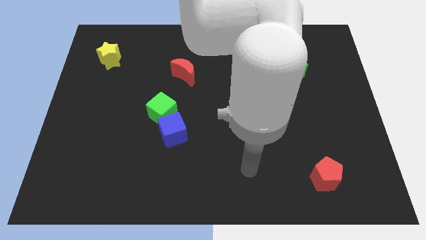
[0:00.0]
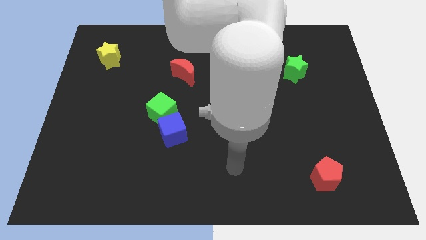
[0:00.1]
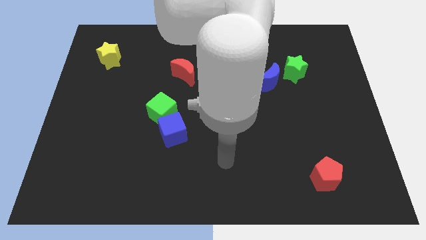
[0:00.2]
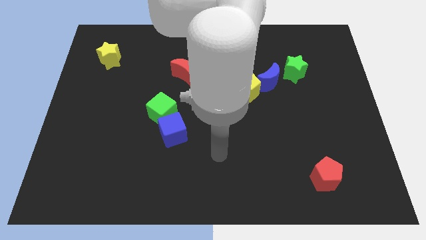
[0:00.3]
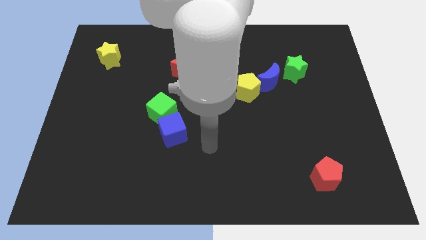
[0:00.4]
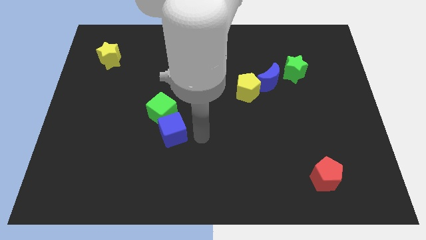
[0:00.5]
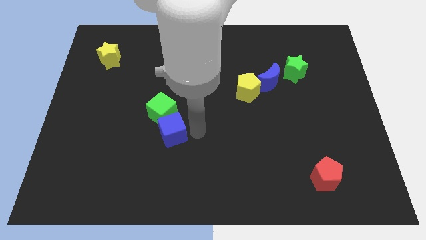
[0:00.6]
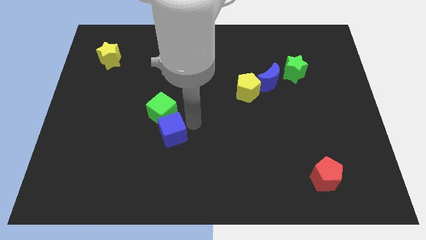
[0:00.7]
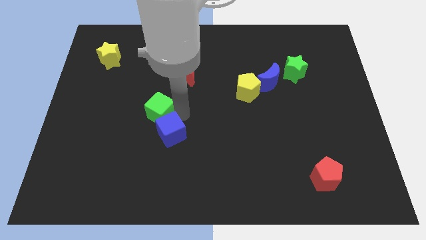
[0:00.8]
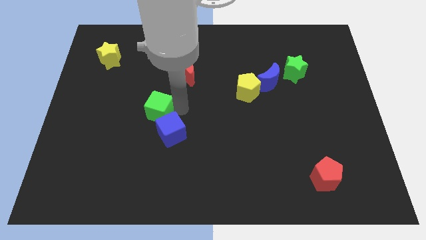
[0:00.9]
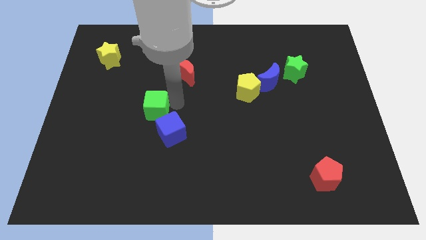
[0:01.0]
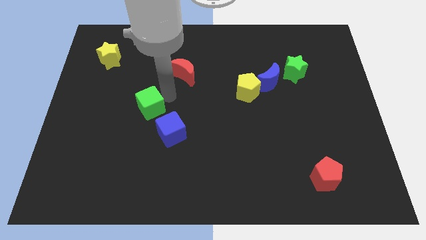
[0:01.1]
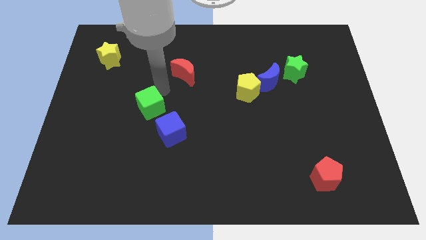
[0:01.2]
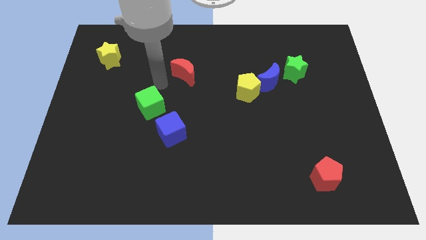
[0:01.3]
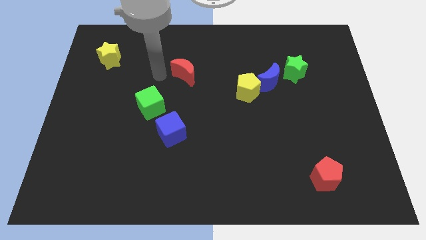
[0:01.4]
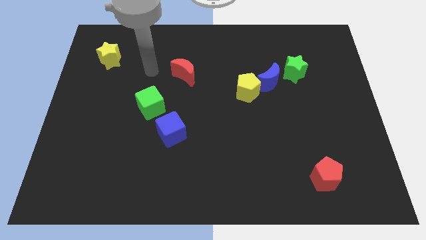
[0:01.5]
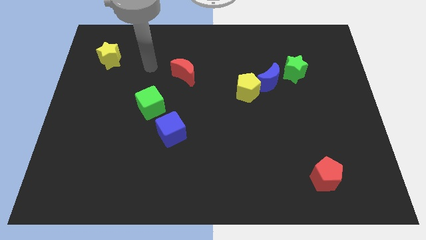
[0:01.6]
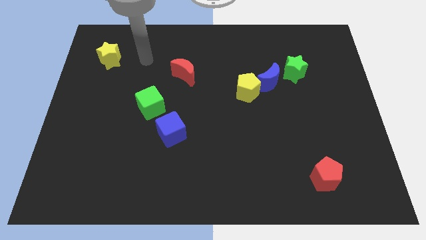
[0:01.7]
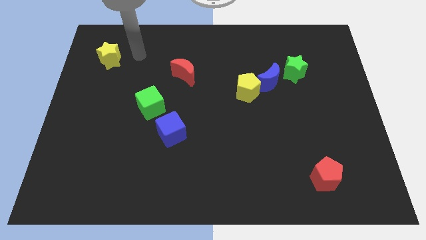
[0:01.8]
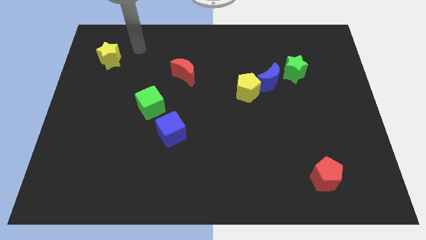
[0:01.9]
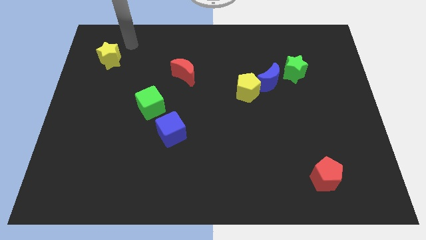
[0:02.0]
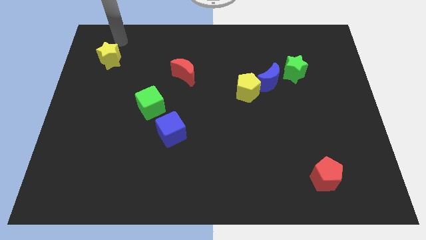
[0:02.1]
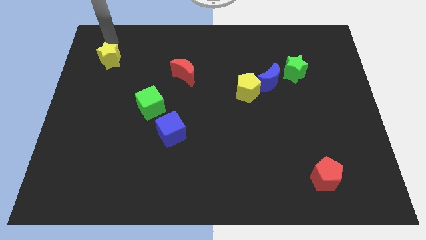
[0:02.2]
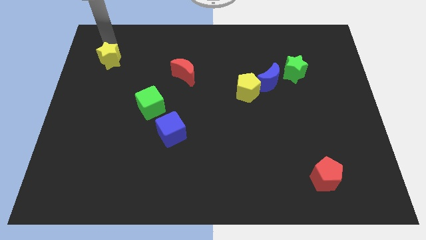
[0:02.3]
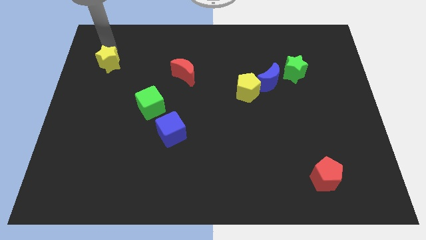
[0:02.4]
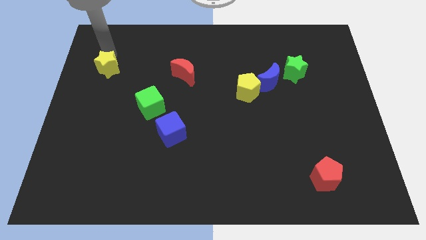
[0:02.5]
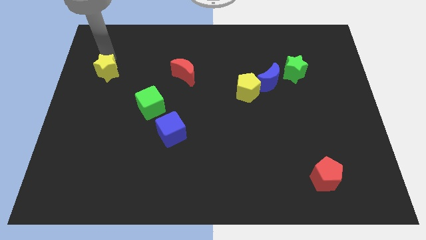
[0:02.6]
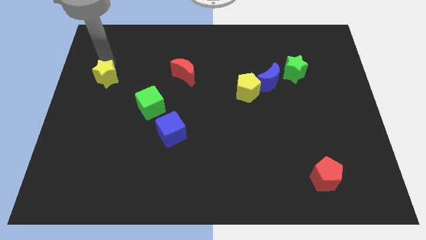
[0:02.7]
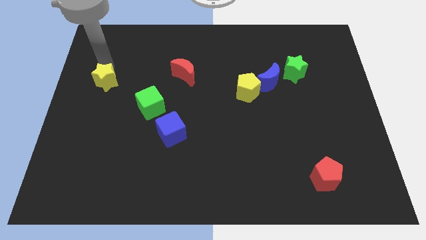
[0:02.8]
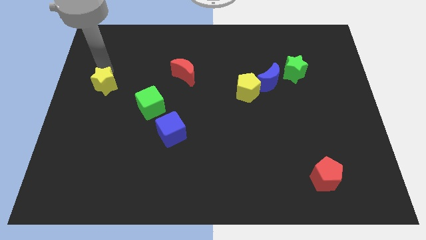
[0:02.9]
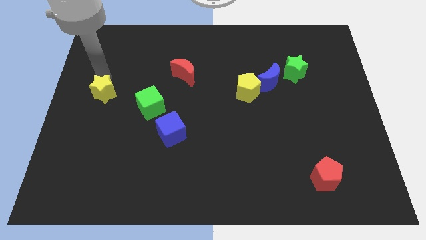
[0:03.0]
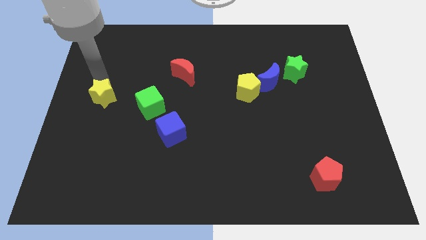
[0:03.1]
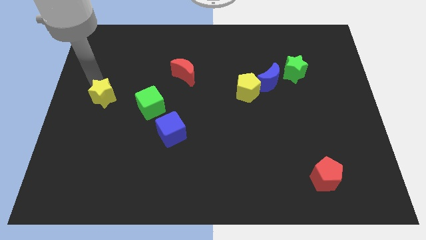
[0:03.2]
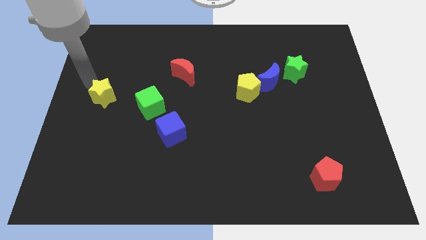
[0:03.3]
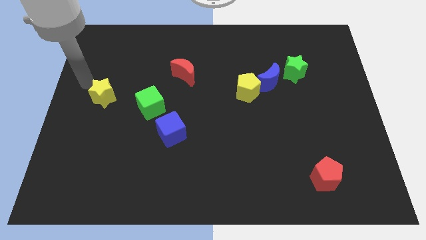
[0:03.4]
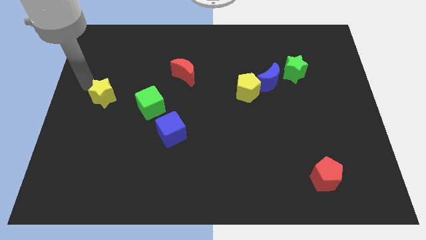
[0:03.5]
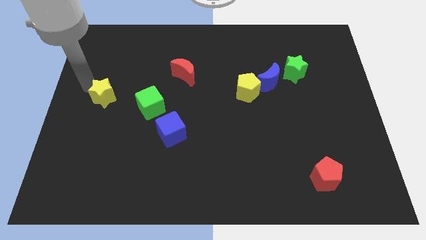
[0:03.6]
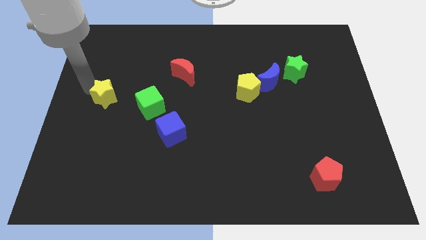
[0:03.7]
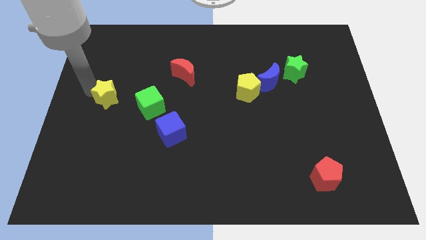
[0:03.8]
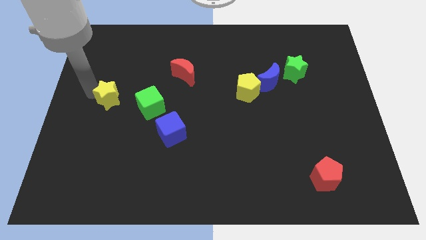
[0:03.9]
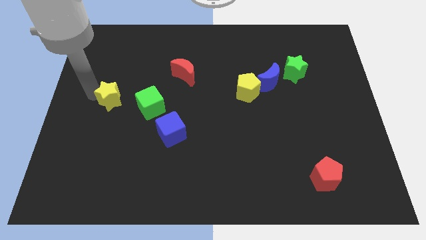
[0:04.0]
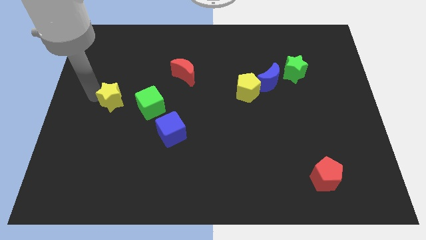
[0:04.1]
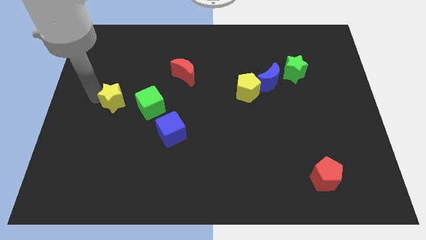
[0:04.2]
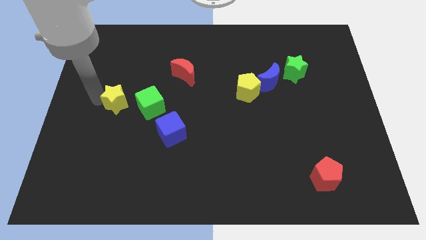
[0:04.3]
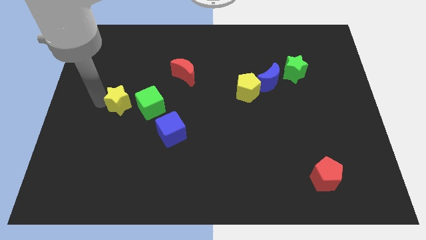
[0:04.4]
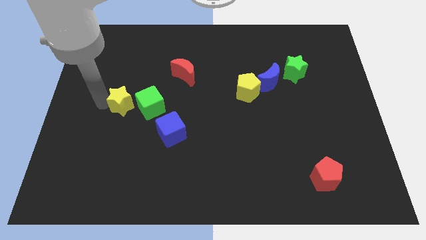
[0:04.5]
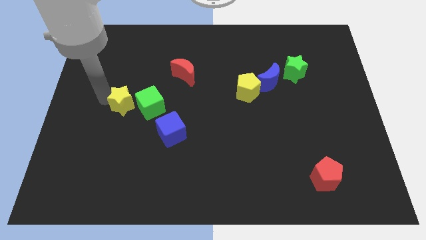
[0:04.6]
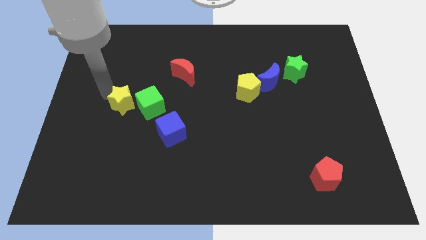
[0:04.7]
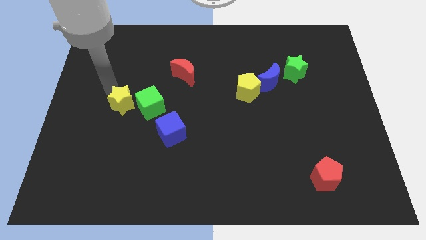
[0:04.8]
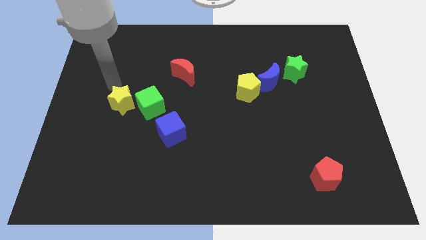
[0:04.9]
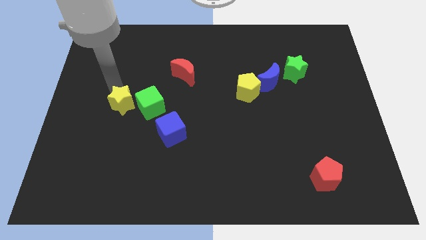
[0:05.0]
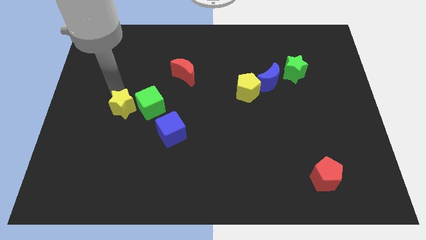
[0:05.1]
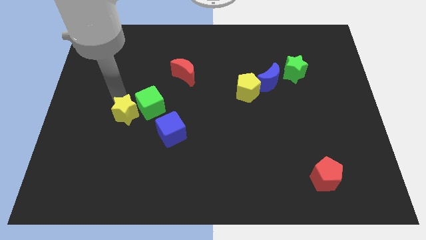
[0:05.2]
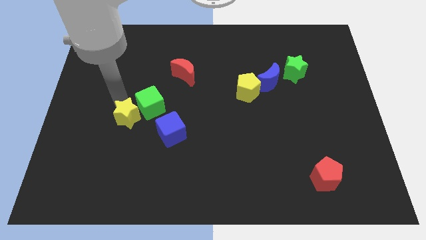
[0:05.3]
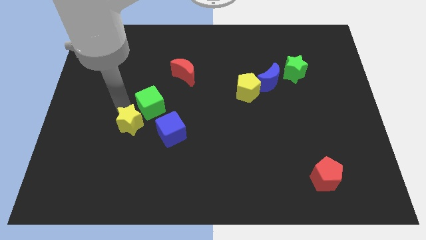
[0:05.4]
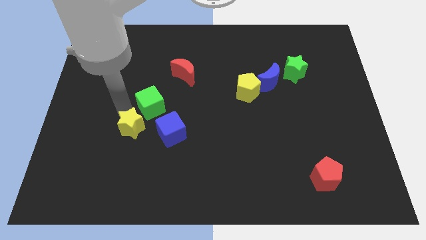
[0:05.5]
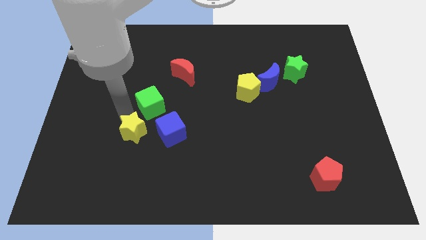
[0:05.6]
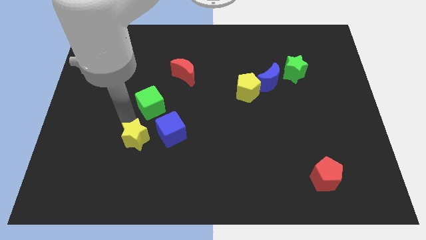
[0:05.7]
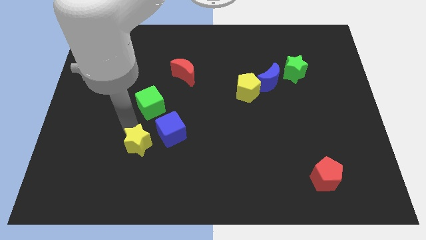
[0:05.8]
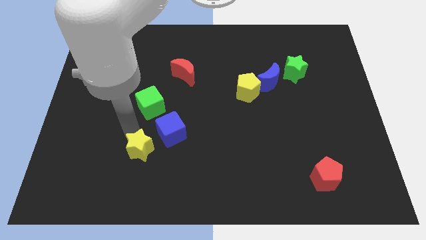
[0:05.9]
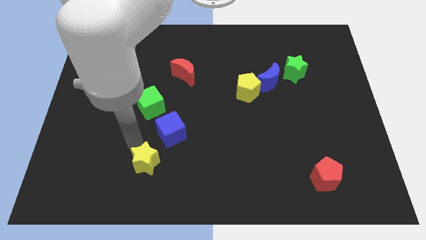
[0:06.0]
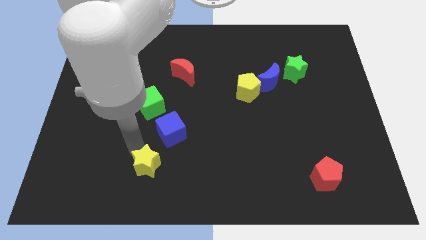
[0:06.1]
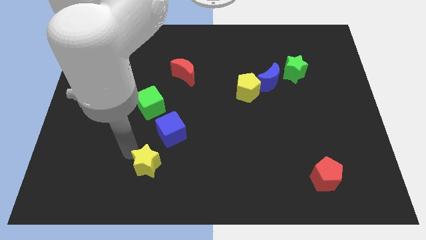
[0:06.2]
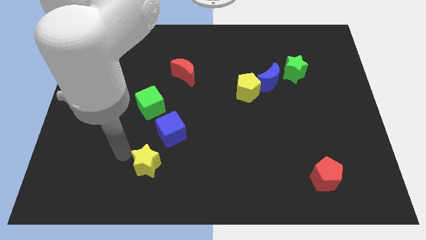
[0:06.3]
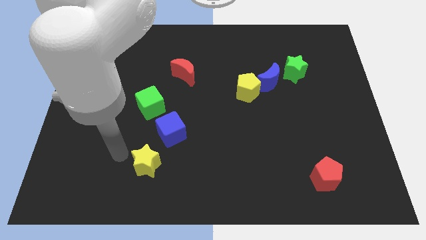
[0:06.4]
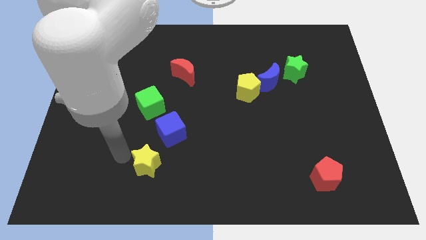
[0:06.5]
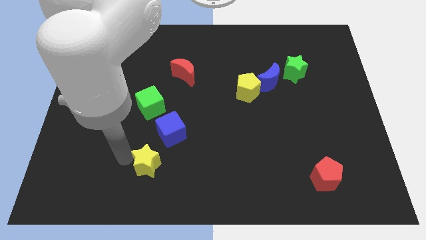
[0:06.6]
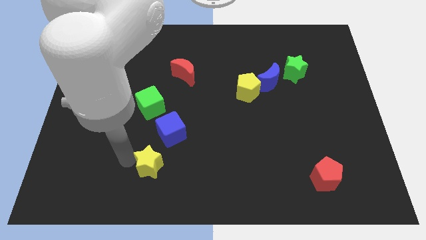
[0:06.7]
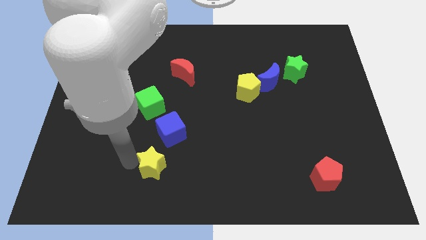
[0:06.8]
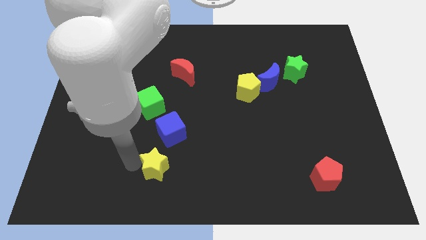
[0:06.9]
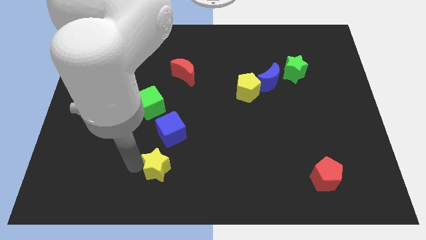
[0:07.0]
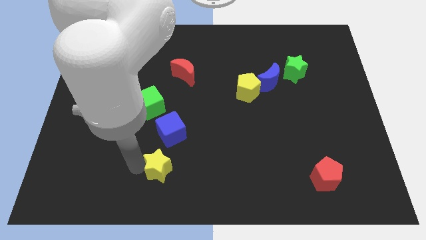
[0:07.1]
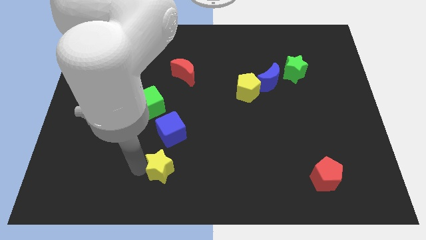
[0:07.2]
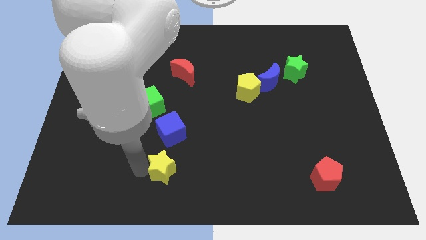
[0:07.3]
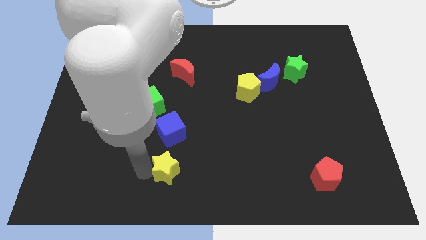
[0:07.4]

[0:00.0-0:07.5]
put the yellow star to the bottom side
